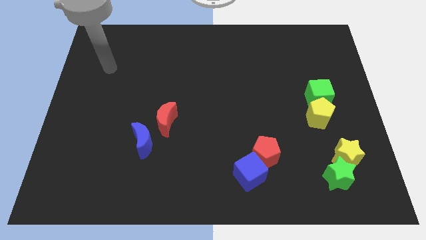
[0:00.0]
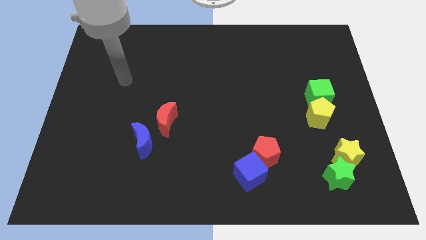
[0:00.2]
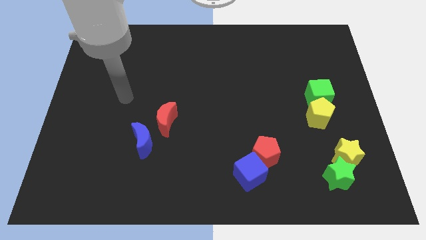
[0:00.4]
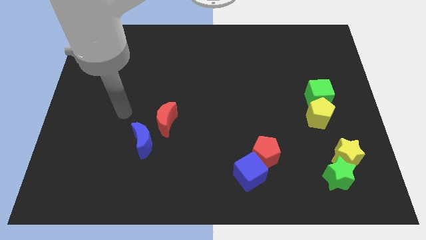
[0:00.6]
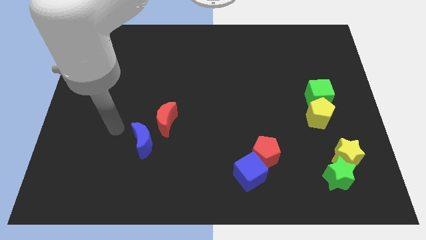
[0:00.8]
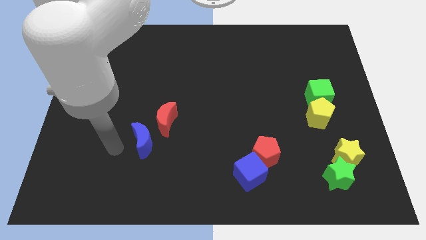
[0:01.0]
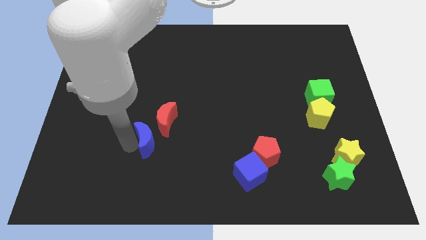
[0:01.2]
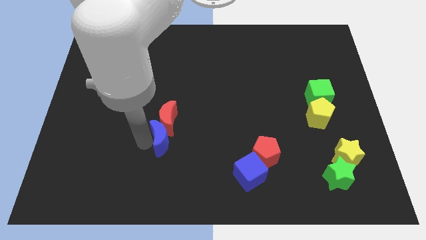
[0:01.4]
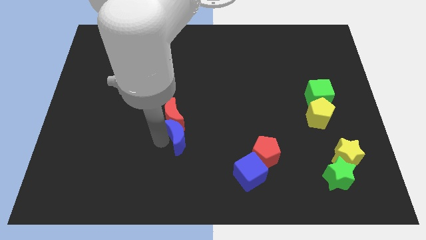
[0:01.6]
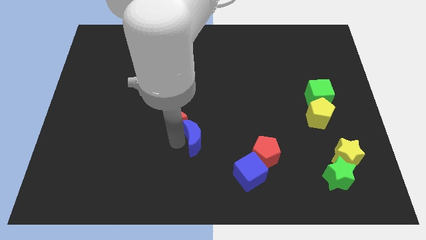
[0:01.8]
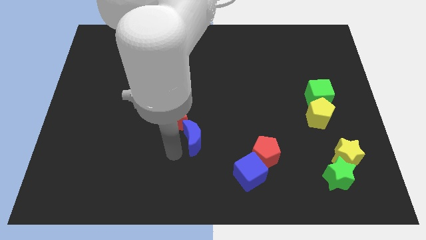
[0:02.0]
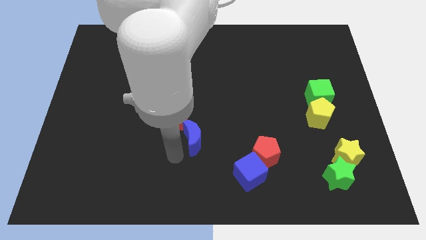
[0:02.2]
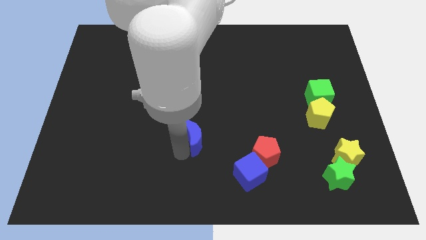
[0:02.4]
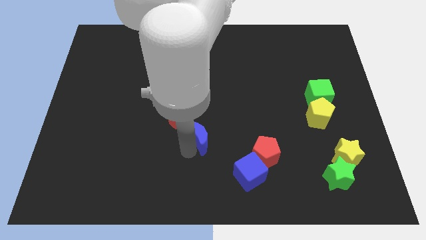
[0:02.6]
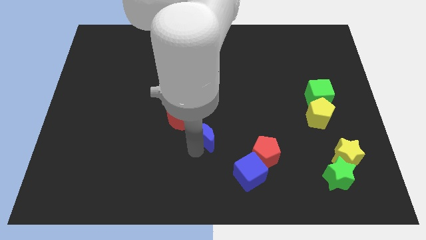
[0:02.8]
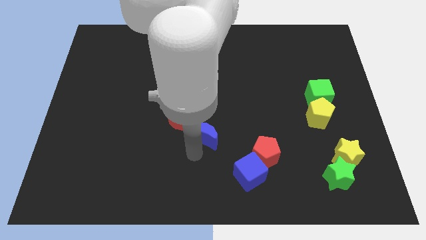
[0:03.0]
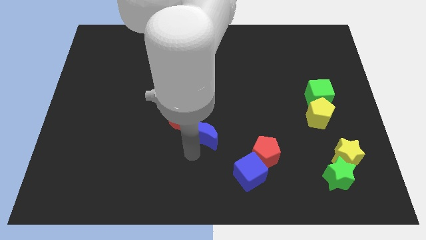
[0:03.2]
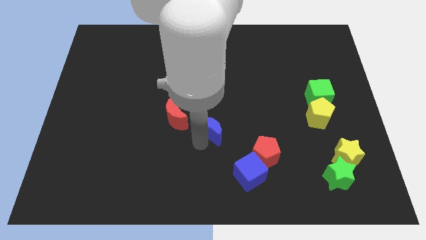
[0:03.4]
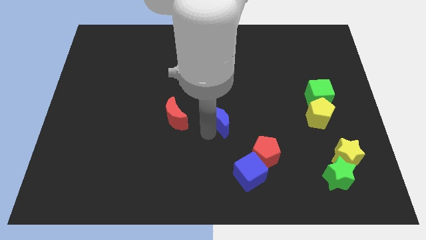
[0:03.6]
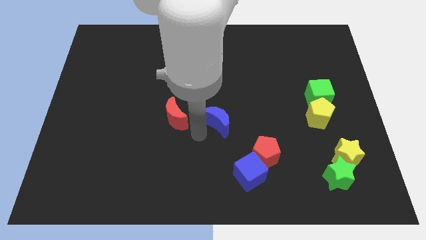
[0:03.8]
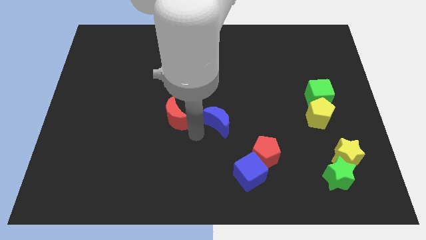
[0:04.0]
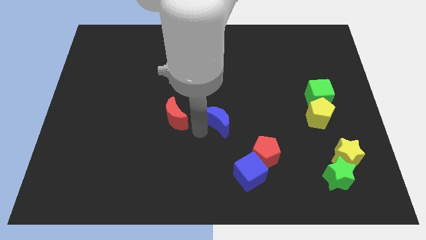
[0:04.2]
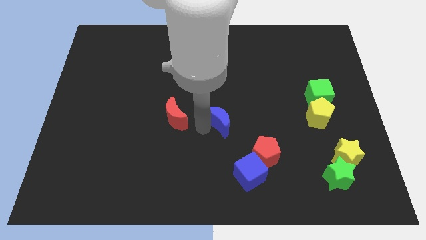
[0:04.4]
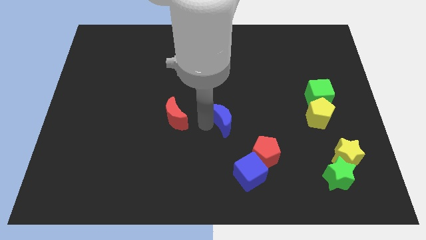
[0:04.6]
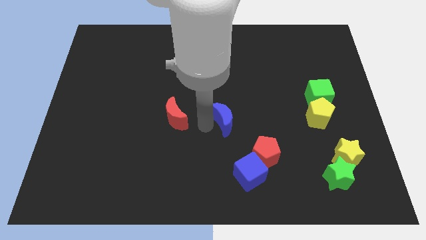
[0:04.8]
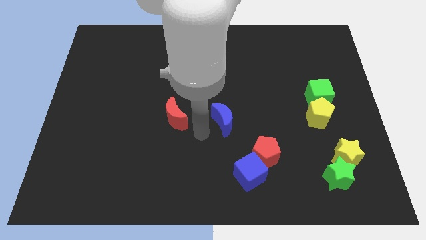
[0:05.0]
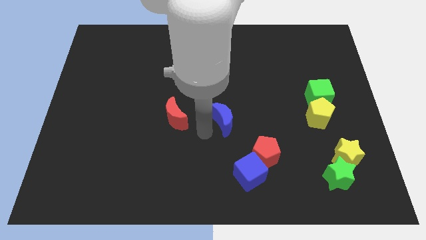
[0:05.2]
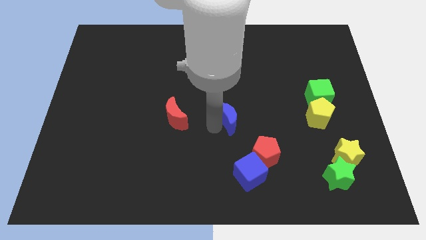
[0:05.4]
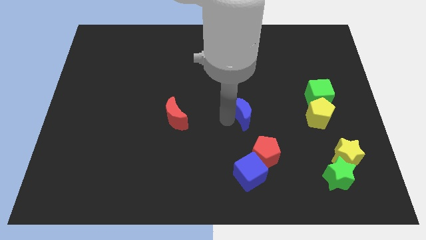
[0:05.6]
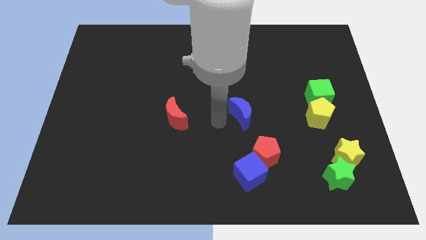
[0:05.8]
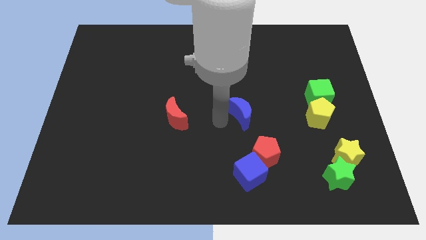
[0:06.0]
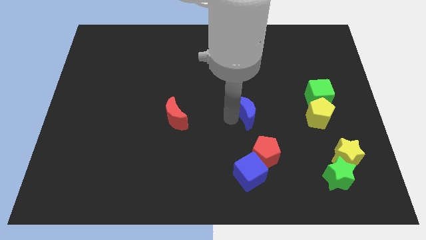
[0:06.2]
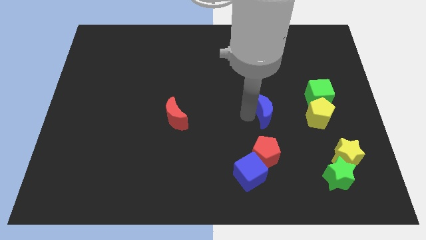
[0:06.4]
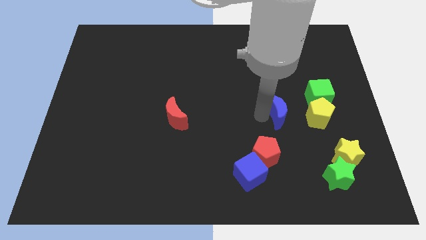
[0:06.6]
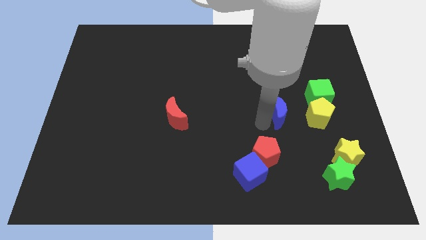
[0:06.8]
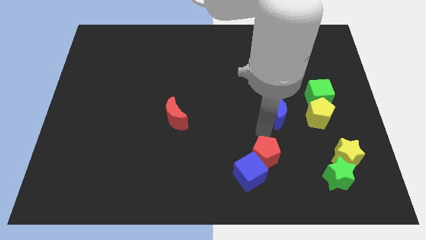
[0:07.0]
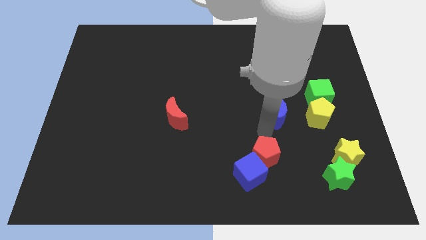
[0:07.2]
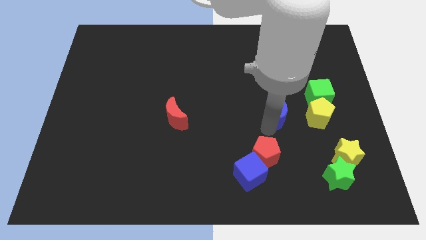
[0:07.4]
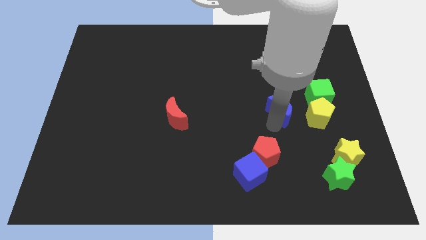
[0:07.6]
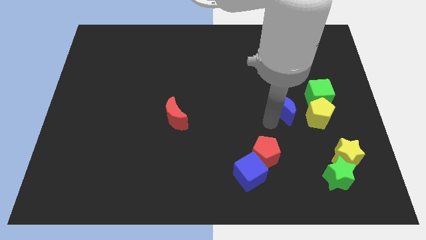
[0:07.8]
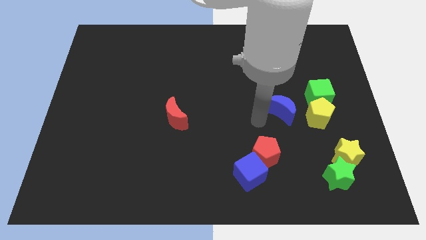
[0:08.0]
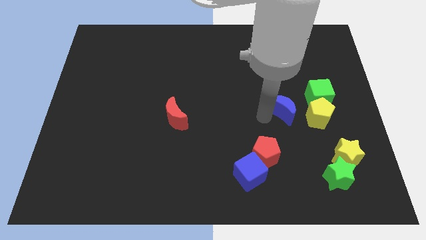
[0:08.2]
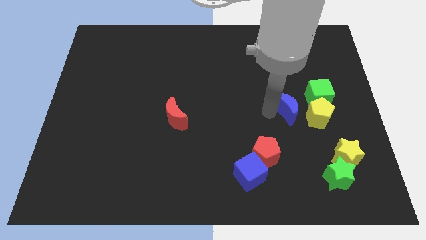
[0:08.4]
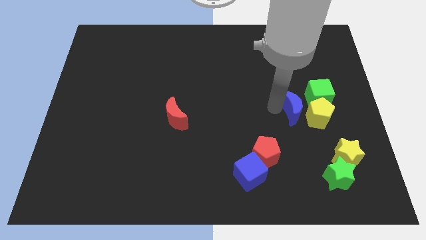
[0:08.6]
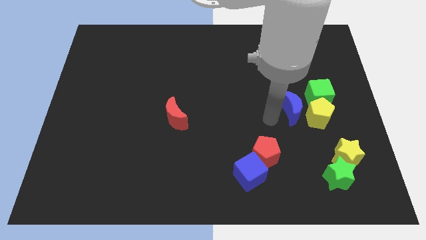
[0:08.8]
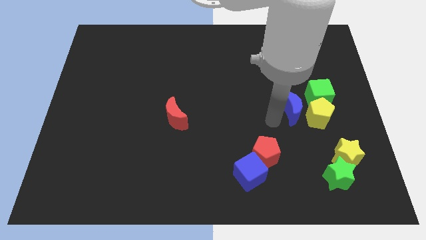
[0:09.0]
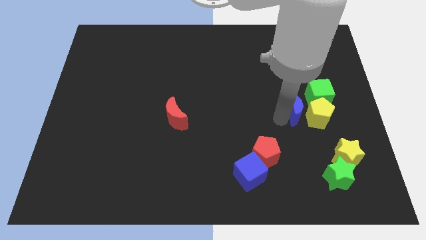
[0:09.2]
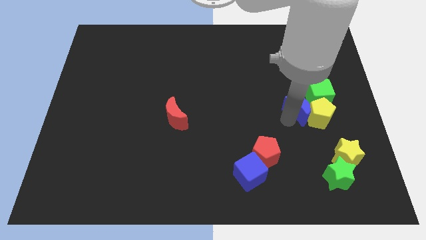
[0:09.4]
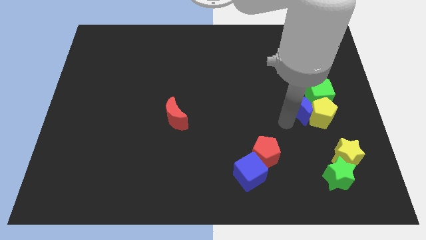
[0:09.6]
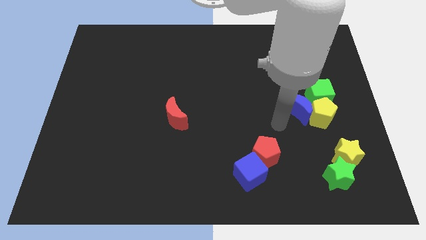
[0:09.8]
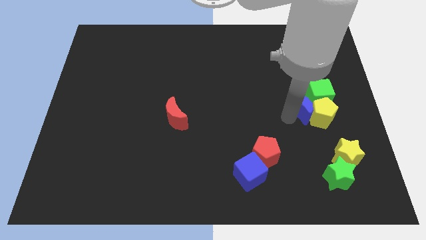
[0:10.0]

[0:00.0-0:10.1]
move the blue moon next to the green cube

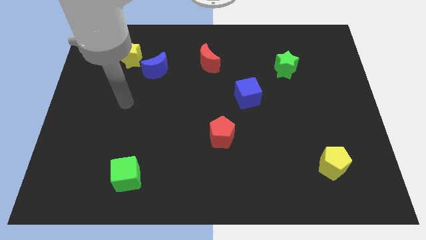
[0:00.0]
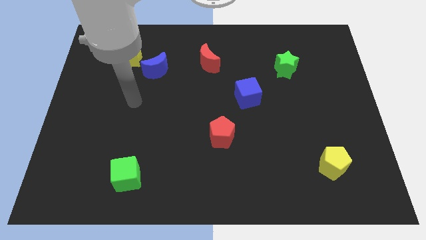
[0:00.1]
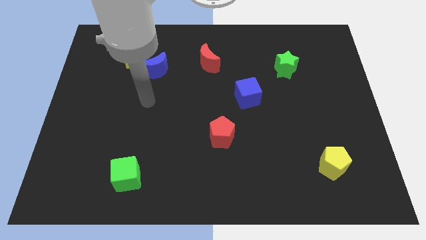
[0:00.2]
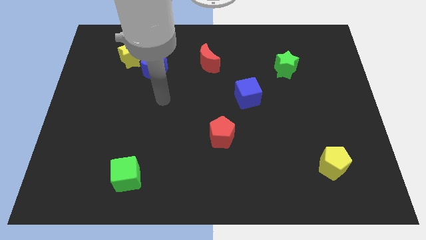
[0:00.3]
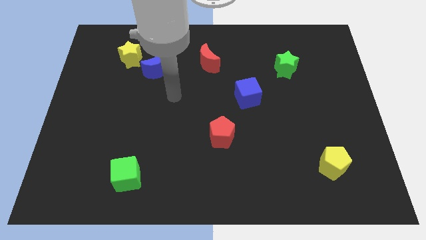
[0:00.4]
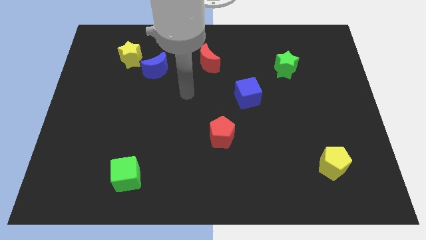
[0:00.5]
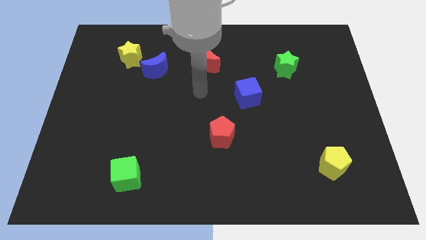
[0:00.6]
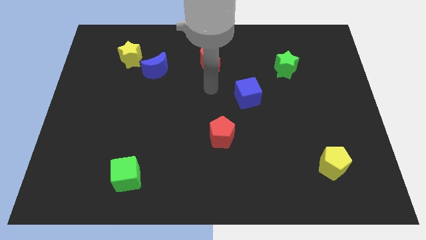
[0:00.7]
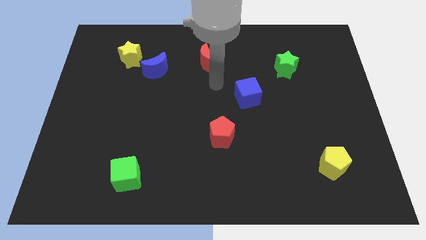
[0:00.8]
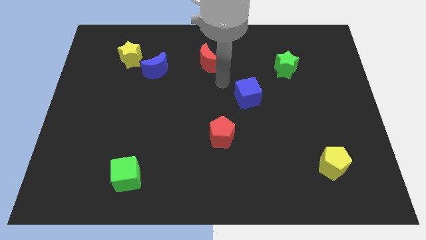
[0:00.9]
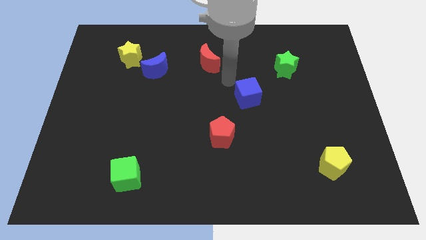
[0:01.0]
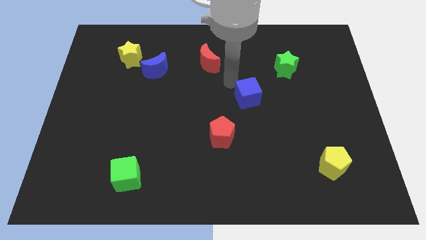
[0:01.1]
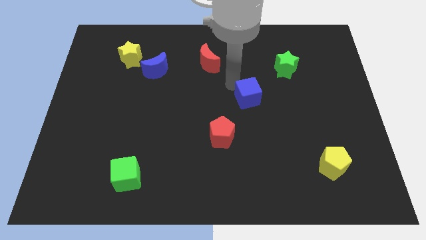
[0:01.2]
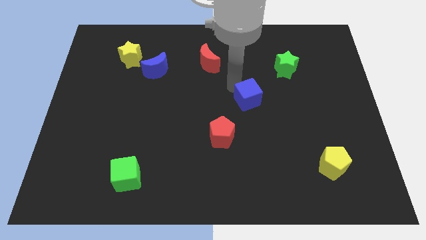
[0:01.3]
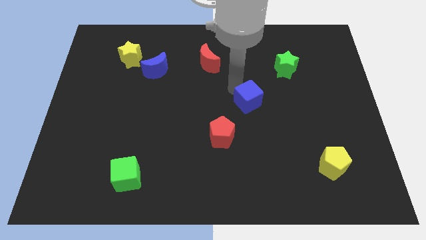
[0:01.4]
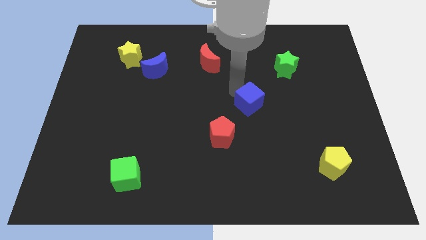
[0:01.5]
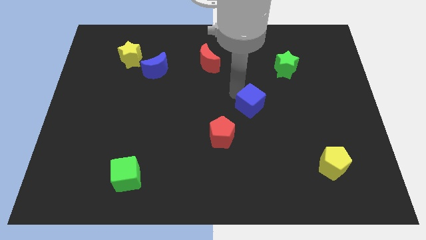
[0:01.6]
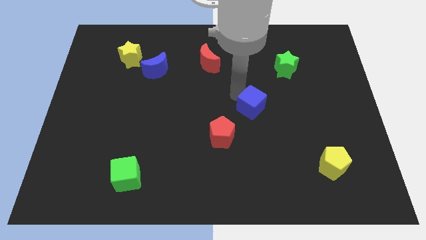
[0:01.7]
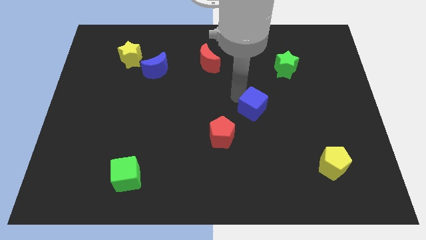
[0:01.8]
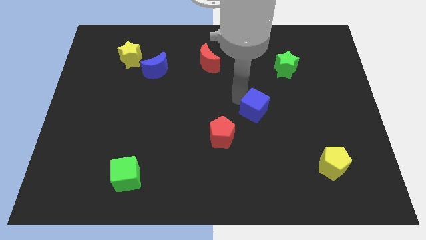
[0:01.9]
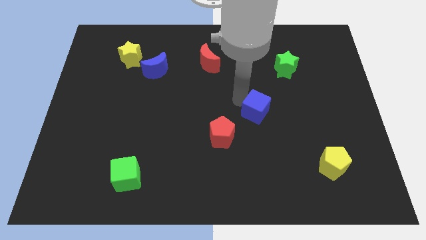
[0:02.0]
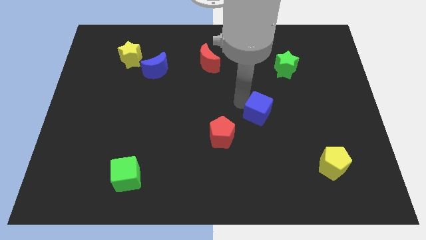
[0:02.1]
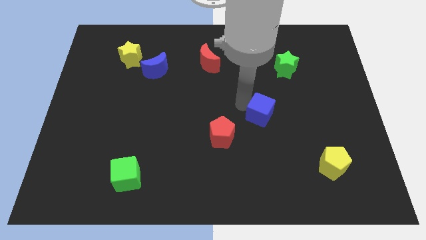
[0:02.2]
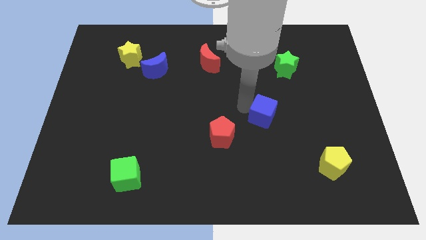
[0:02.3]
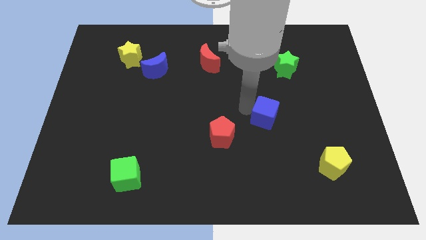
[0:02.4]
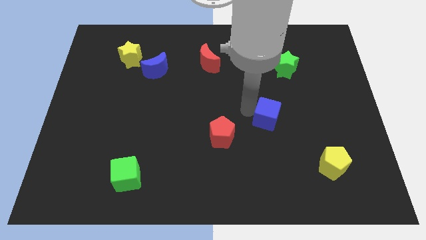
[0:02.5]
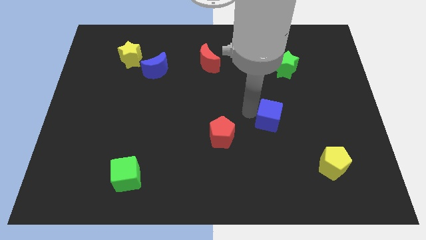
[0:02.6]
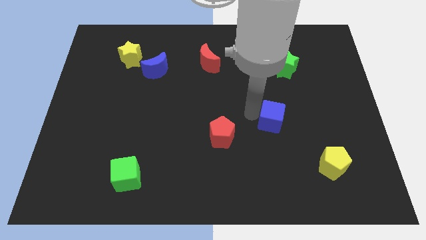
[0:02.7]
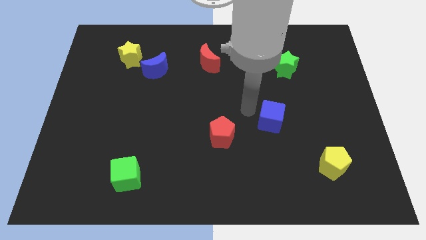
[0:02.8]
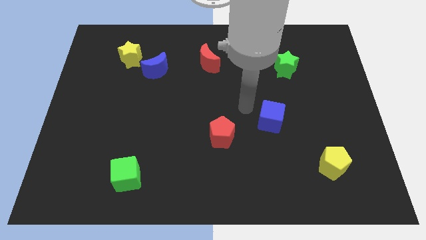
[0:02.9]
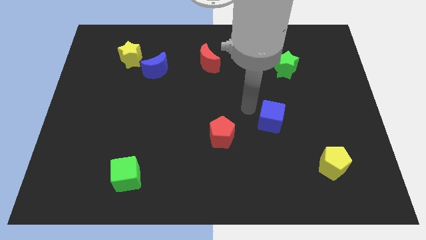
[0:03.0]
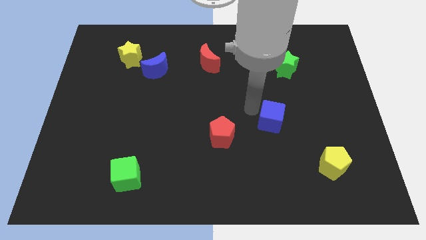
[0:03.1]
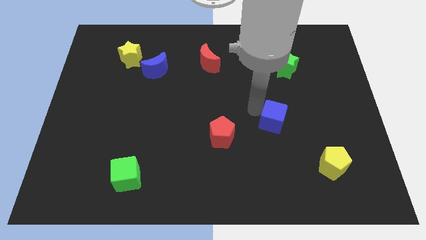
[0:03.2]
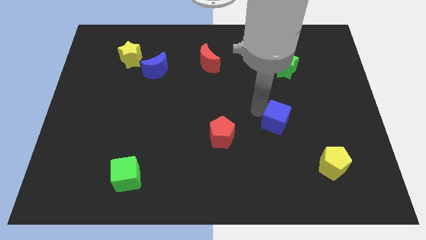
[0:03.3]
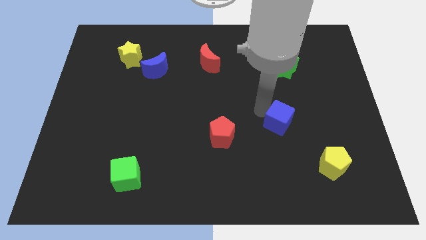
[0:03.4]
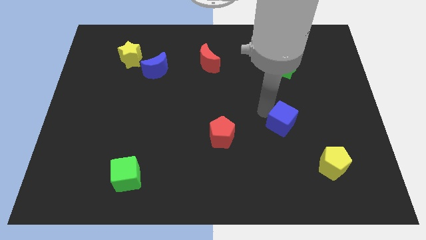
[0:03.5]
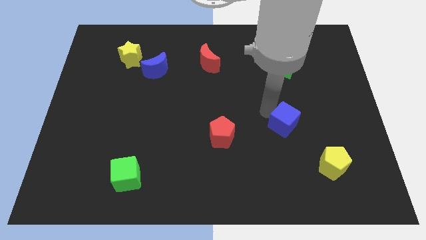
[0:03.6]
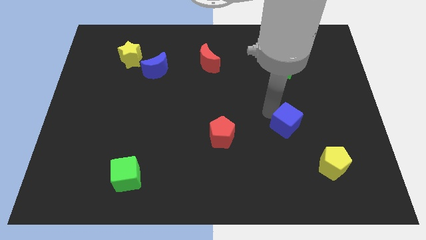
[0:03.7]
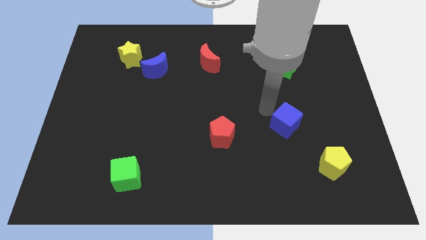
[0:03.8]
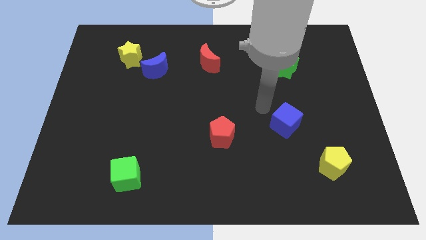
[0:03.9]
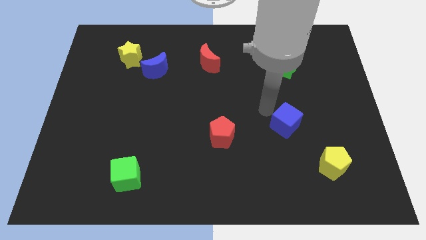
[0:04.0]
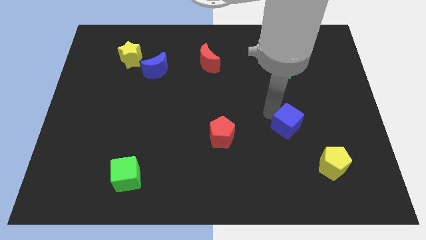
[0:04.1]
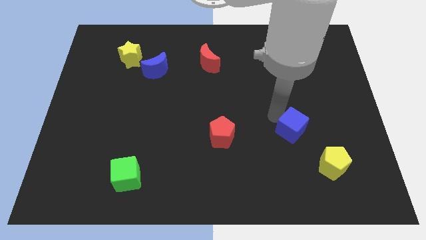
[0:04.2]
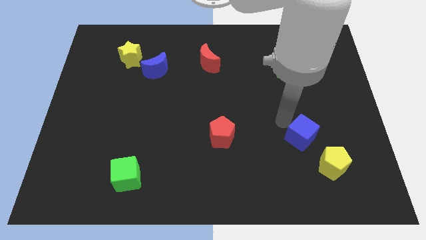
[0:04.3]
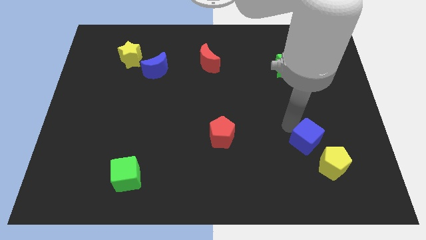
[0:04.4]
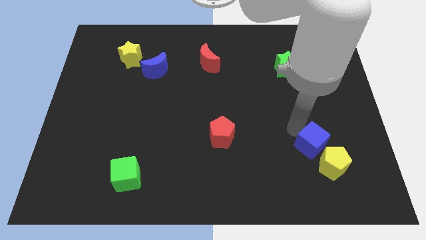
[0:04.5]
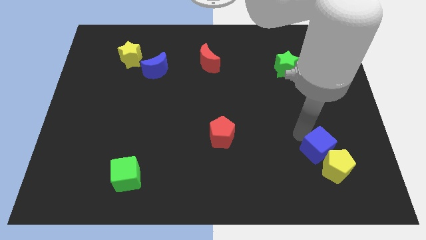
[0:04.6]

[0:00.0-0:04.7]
put the blue cube next to the yellow pentagon
